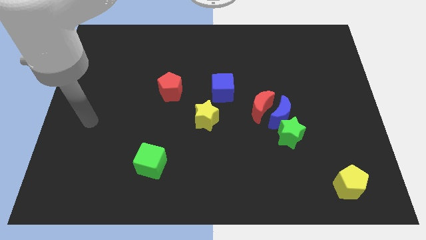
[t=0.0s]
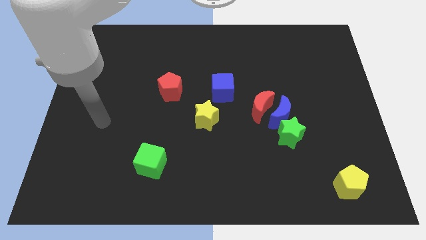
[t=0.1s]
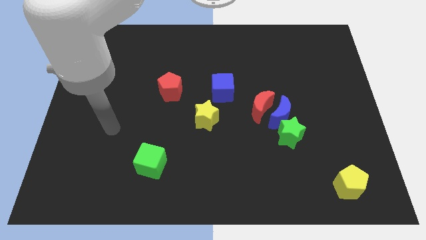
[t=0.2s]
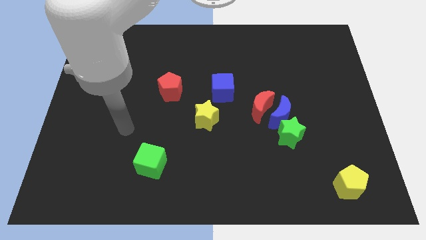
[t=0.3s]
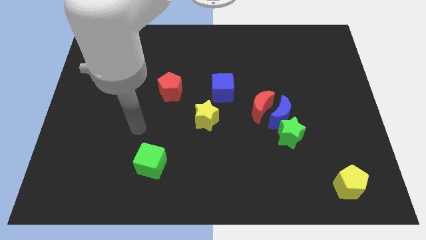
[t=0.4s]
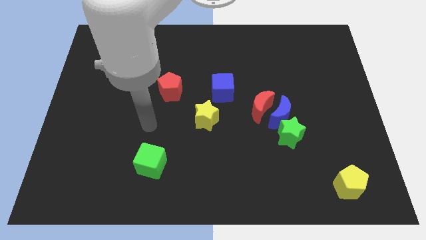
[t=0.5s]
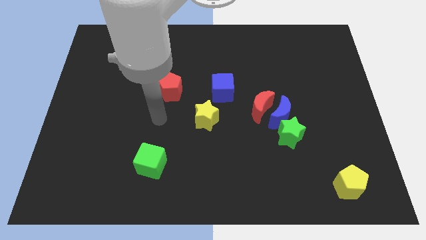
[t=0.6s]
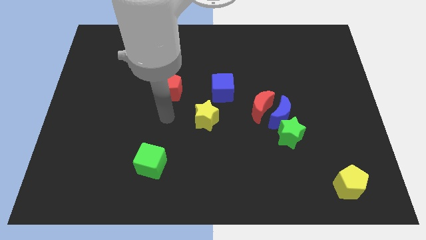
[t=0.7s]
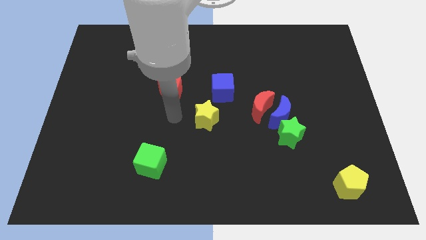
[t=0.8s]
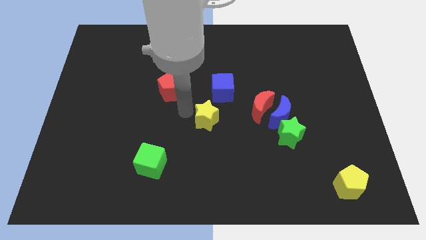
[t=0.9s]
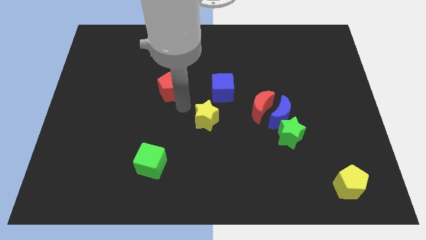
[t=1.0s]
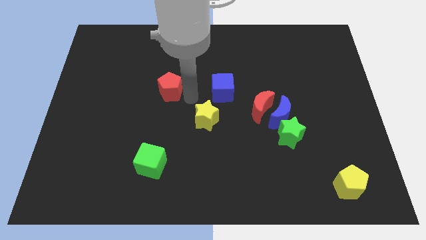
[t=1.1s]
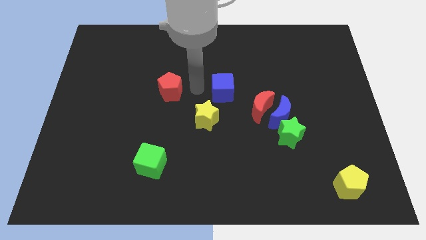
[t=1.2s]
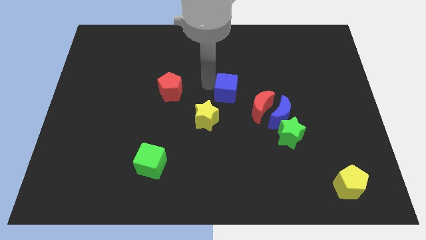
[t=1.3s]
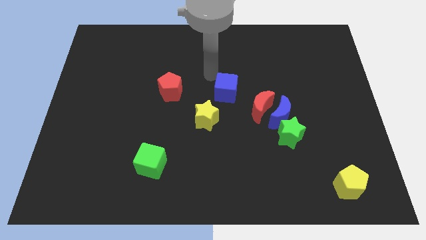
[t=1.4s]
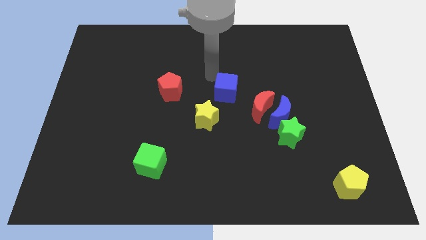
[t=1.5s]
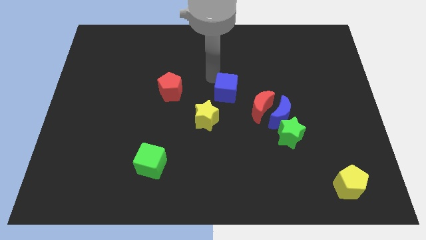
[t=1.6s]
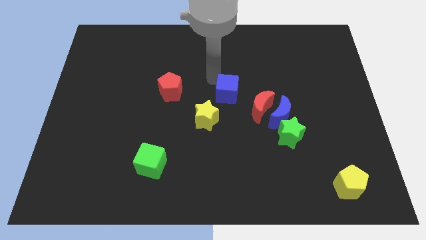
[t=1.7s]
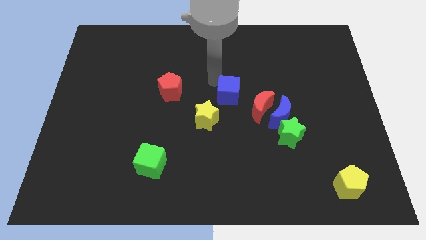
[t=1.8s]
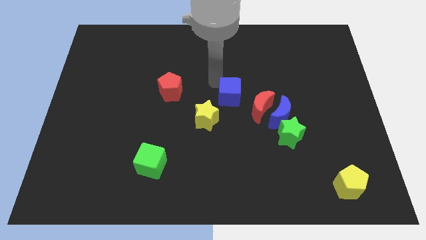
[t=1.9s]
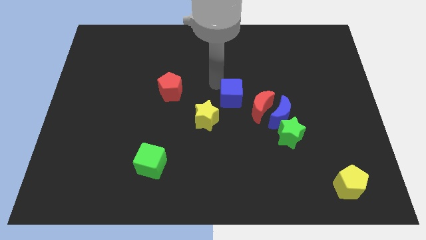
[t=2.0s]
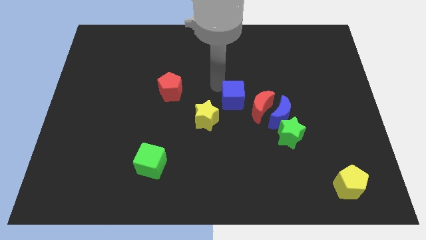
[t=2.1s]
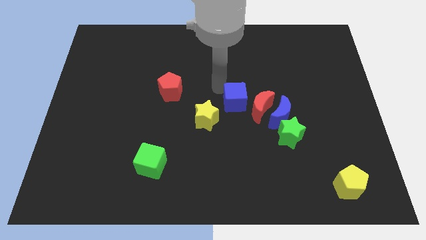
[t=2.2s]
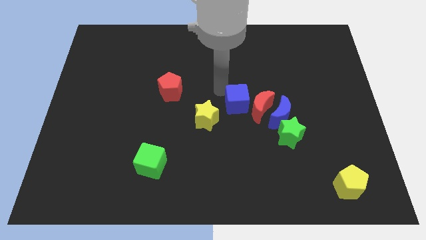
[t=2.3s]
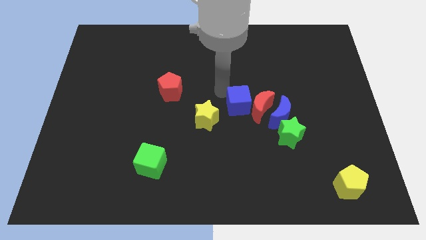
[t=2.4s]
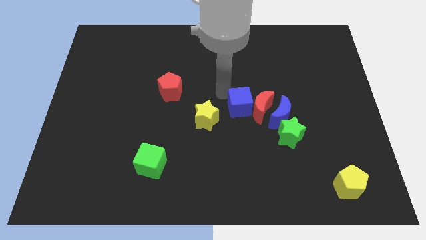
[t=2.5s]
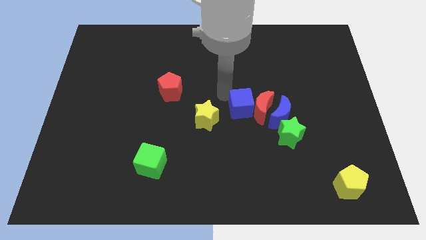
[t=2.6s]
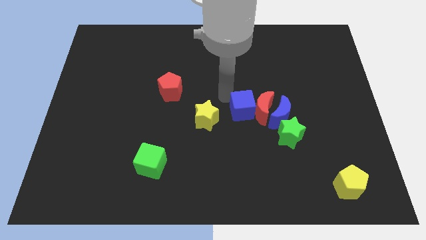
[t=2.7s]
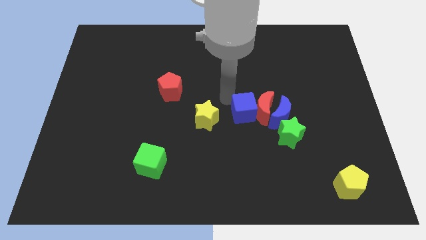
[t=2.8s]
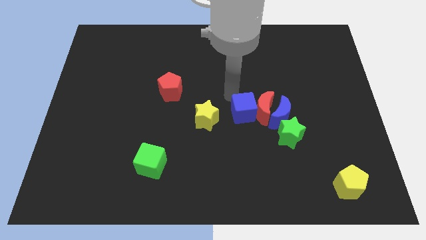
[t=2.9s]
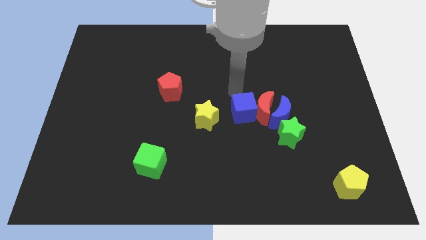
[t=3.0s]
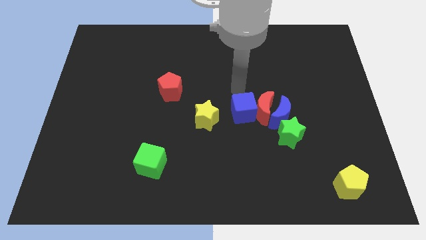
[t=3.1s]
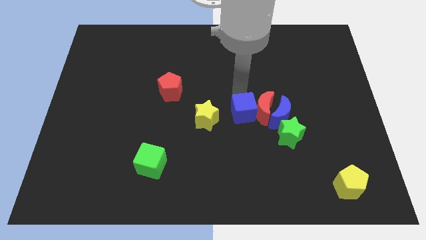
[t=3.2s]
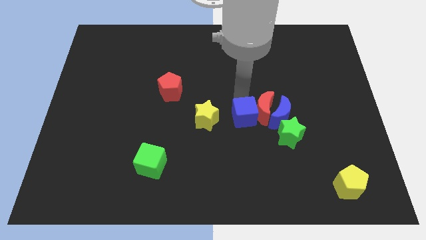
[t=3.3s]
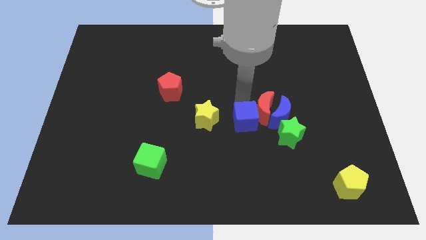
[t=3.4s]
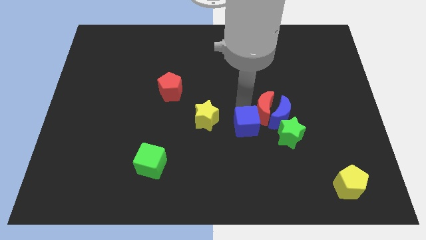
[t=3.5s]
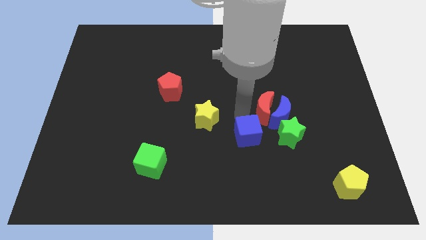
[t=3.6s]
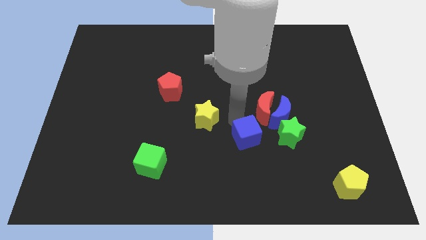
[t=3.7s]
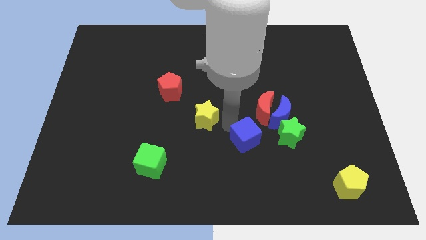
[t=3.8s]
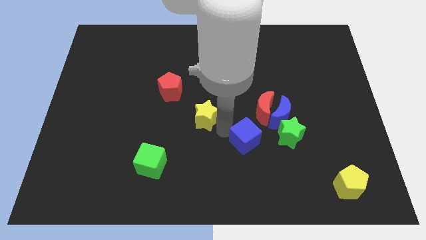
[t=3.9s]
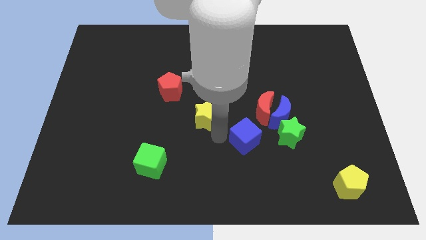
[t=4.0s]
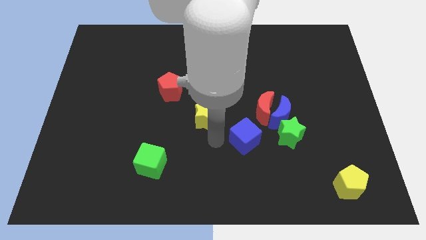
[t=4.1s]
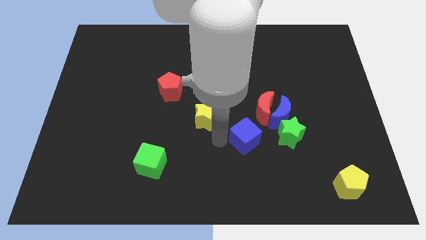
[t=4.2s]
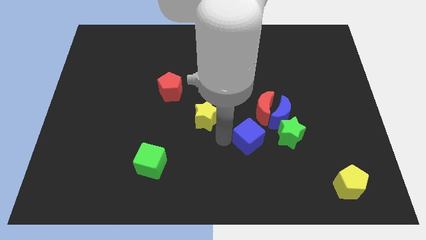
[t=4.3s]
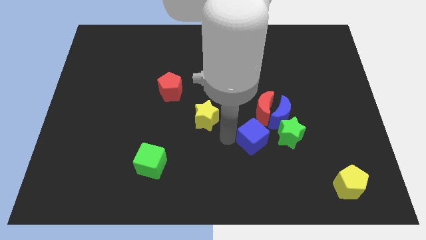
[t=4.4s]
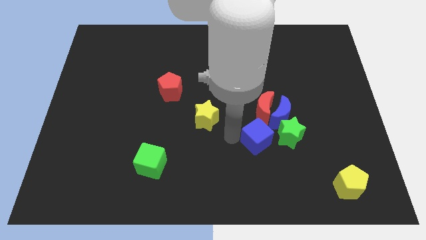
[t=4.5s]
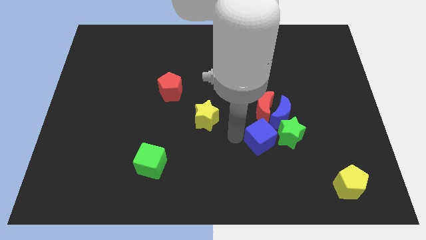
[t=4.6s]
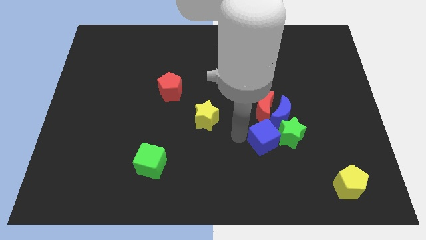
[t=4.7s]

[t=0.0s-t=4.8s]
slide the blue cube towards the green star

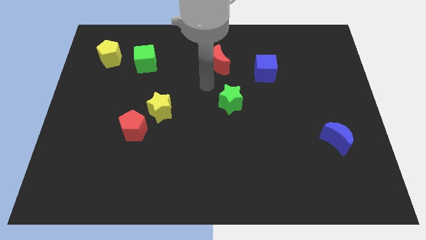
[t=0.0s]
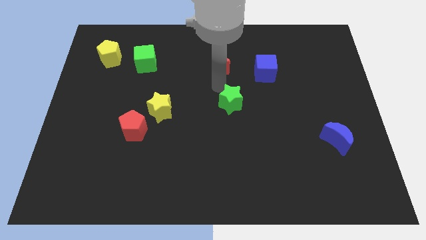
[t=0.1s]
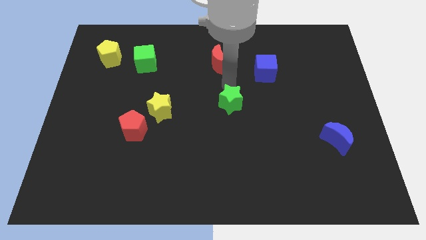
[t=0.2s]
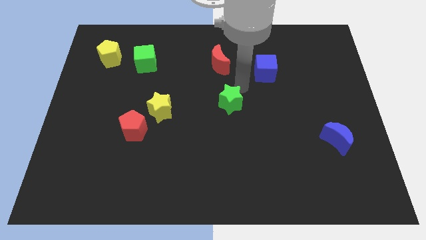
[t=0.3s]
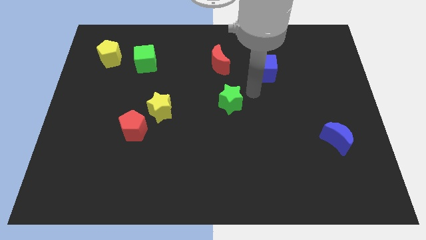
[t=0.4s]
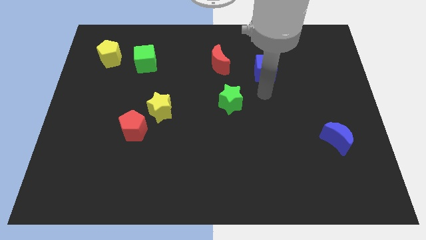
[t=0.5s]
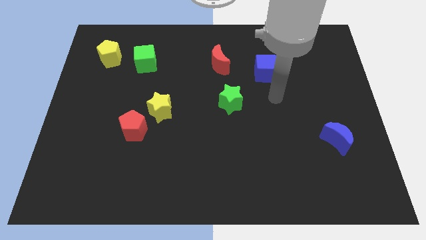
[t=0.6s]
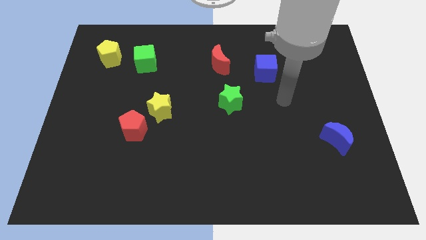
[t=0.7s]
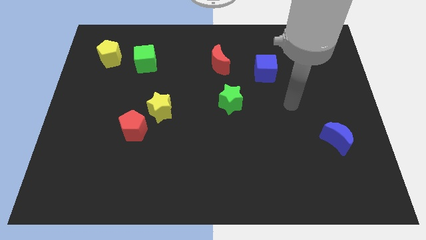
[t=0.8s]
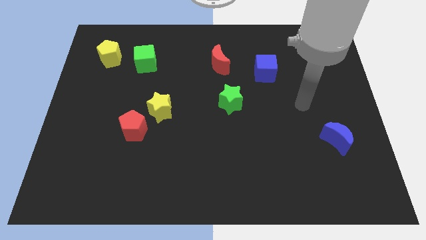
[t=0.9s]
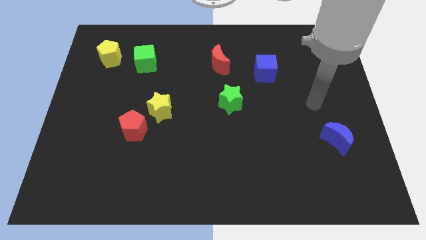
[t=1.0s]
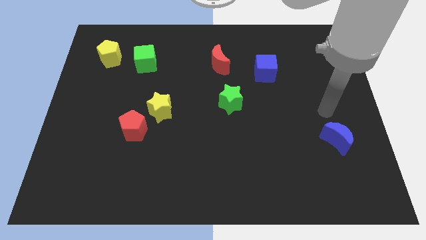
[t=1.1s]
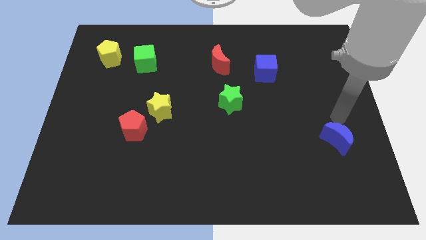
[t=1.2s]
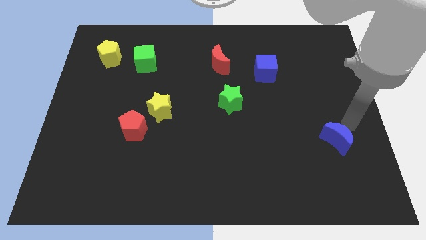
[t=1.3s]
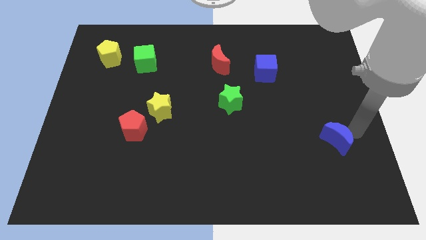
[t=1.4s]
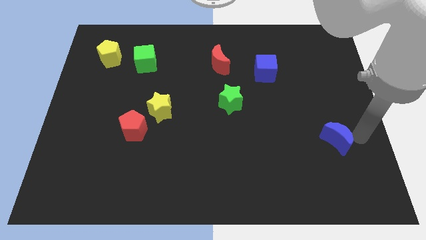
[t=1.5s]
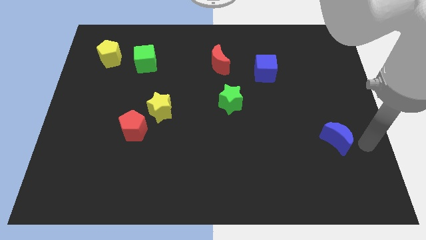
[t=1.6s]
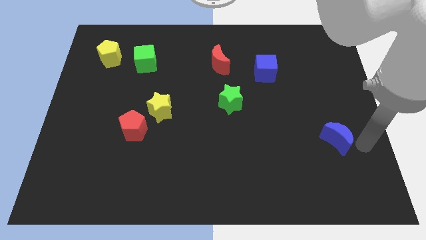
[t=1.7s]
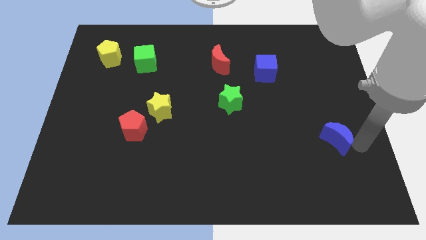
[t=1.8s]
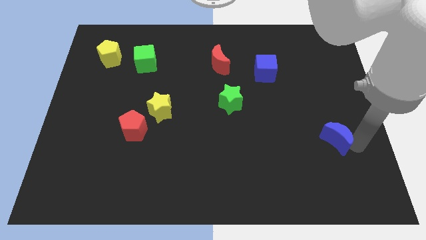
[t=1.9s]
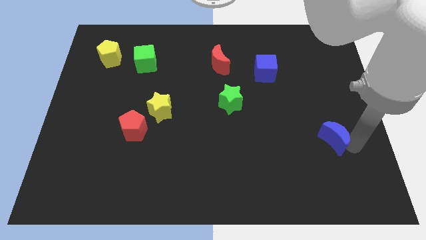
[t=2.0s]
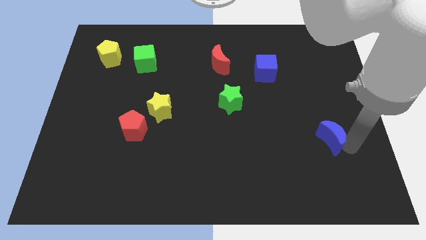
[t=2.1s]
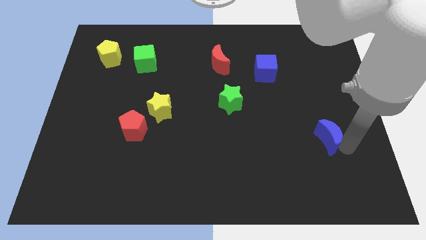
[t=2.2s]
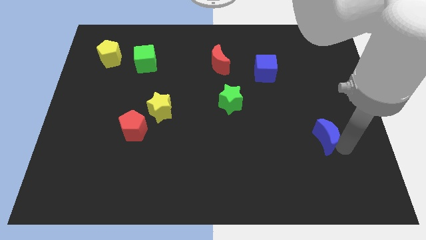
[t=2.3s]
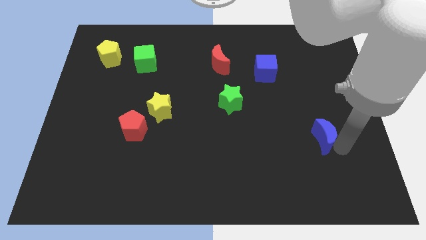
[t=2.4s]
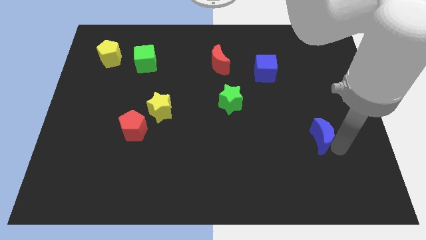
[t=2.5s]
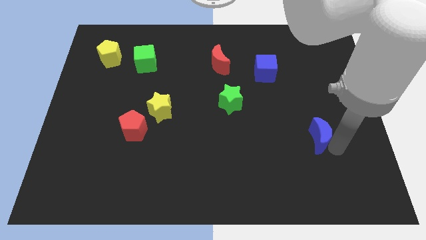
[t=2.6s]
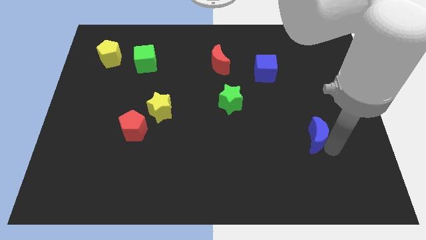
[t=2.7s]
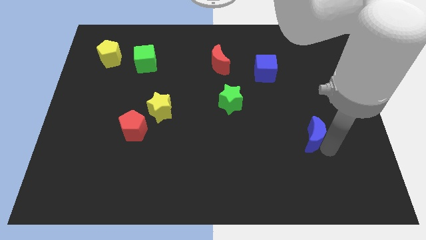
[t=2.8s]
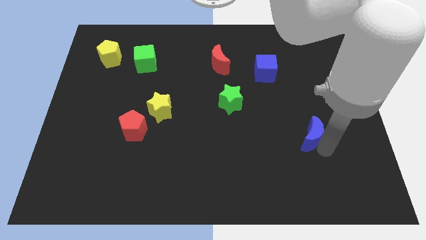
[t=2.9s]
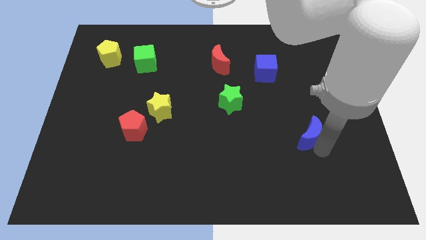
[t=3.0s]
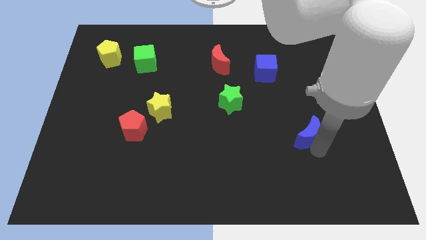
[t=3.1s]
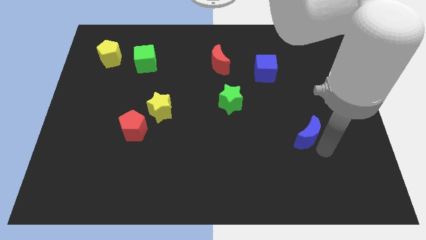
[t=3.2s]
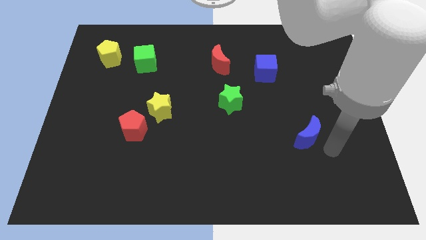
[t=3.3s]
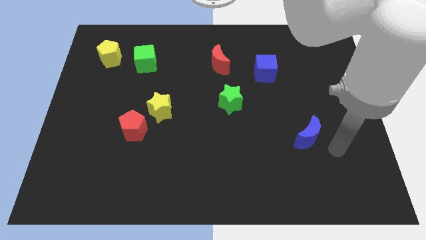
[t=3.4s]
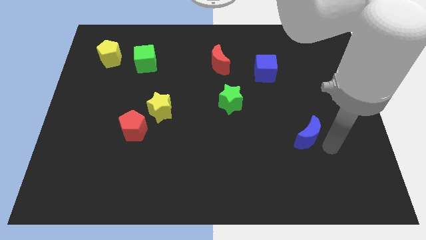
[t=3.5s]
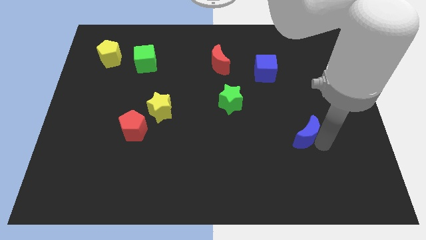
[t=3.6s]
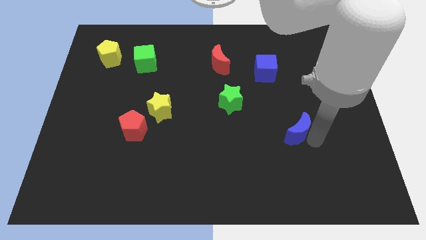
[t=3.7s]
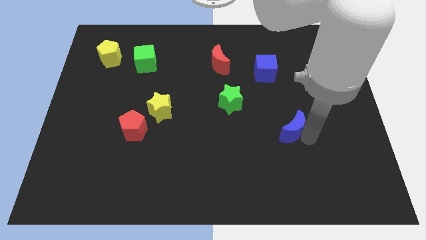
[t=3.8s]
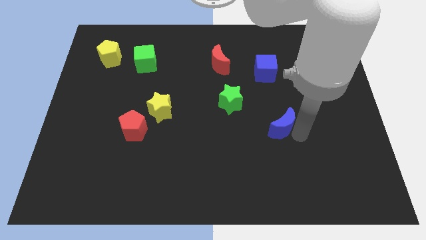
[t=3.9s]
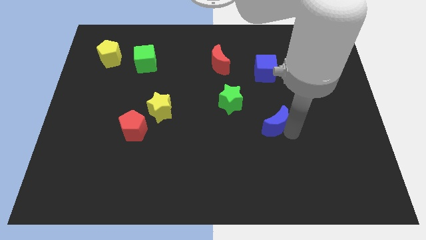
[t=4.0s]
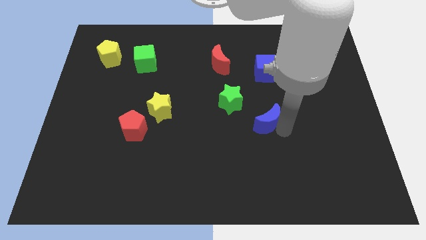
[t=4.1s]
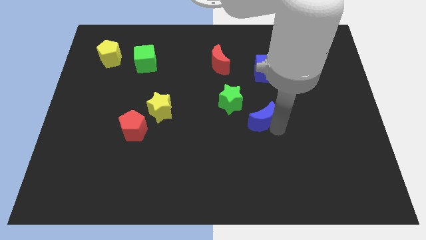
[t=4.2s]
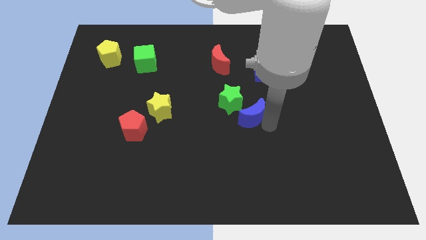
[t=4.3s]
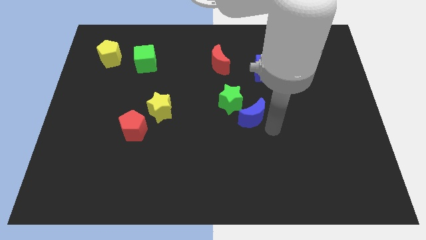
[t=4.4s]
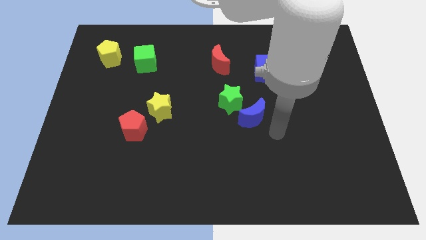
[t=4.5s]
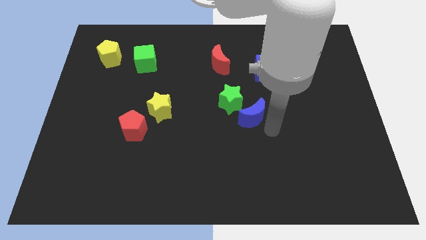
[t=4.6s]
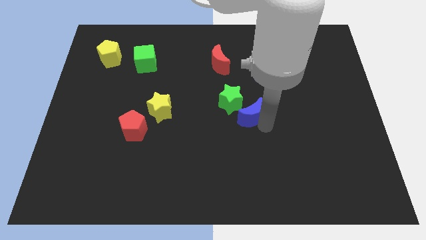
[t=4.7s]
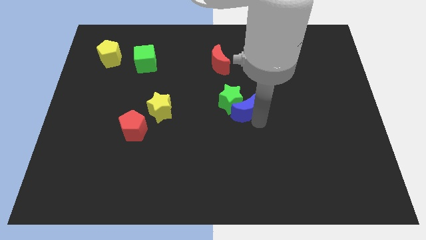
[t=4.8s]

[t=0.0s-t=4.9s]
move the blue moon towards the green star
